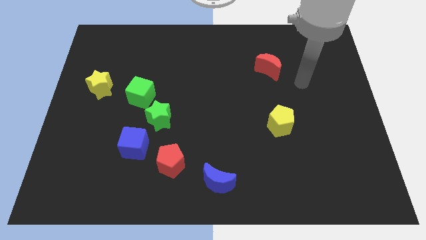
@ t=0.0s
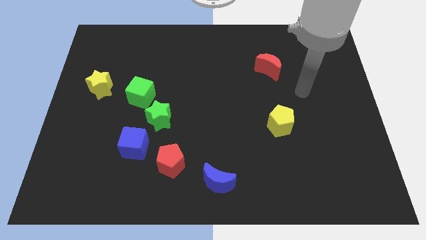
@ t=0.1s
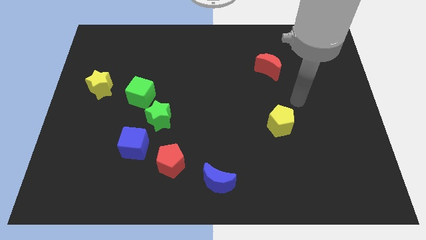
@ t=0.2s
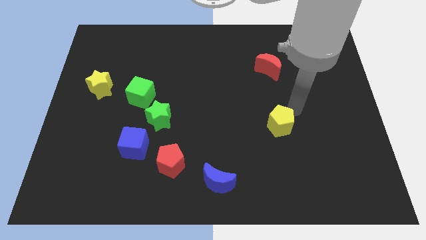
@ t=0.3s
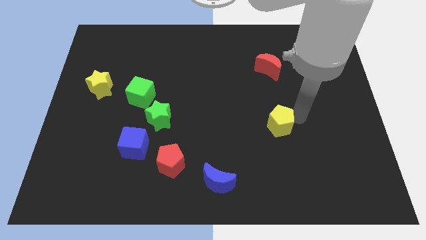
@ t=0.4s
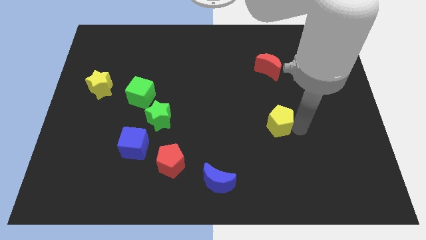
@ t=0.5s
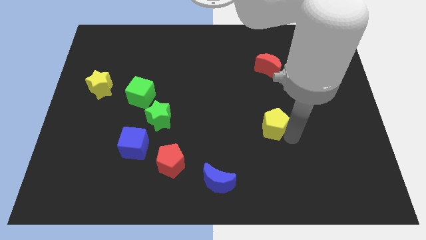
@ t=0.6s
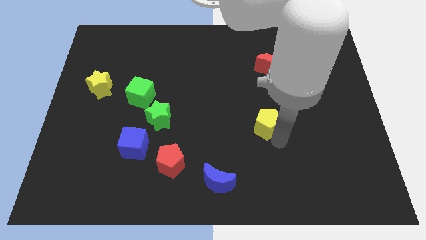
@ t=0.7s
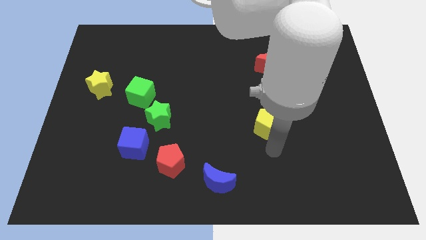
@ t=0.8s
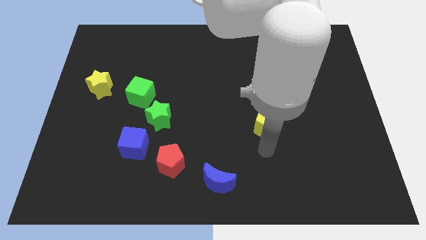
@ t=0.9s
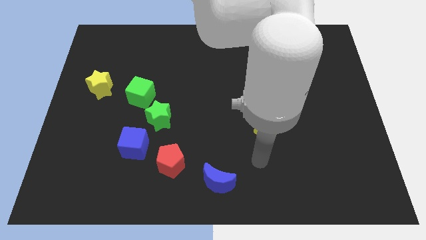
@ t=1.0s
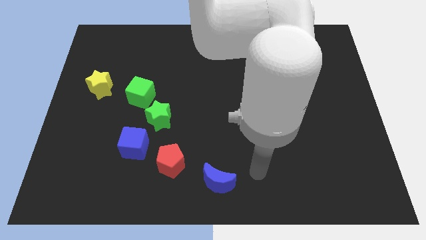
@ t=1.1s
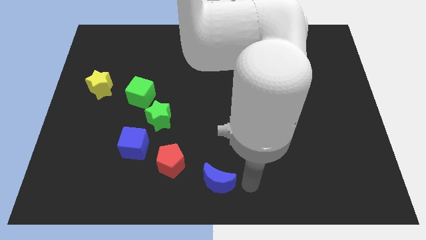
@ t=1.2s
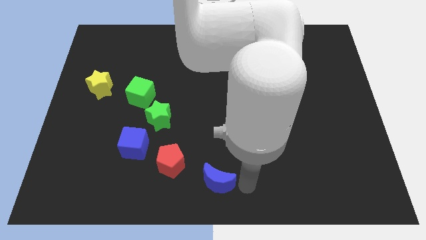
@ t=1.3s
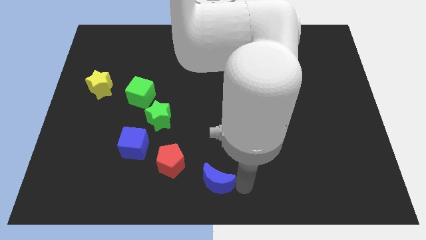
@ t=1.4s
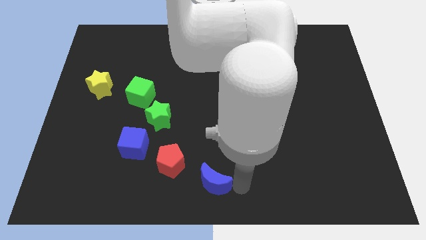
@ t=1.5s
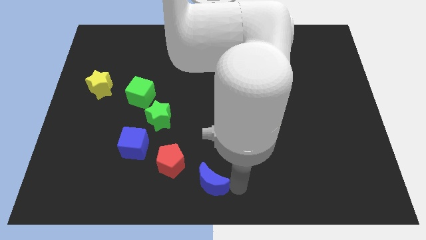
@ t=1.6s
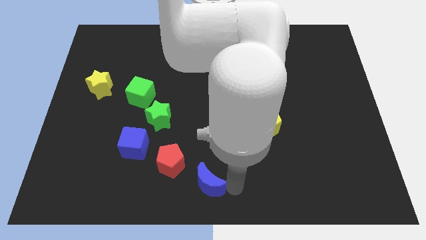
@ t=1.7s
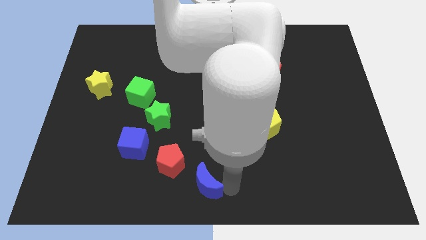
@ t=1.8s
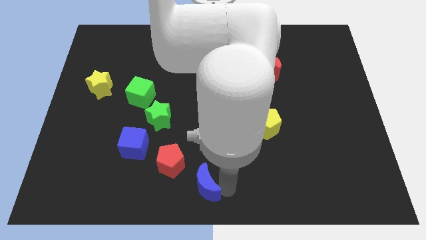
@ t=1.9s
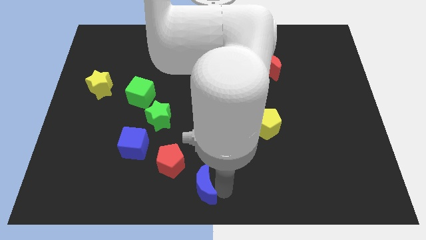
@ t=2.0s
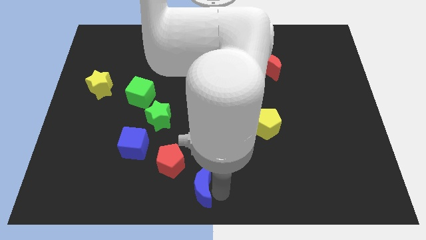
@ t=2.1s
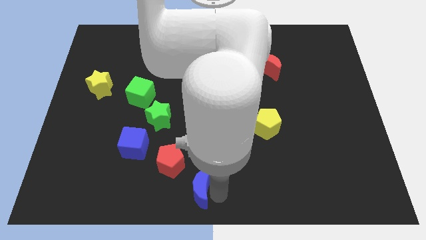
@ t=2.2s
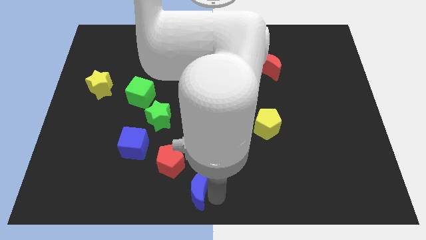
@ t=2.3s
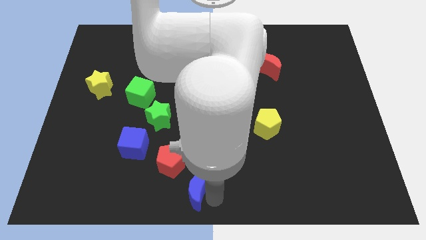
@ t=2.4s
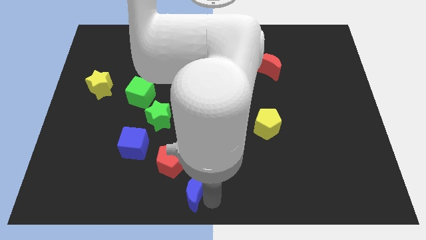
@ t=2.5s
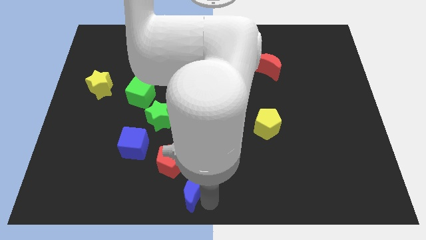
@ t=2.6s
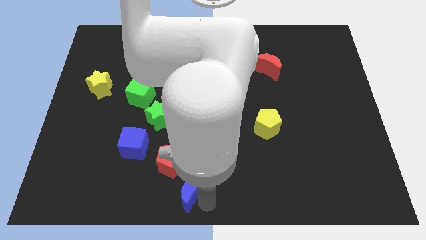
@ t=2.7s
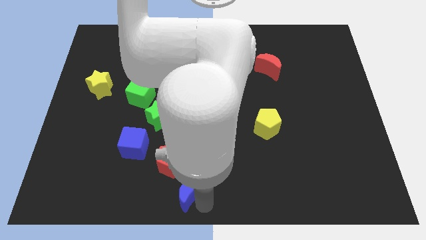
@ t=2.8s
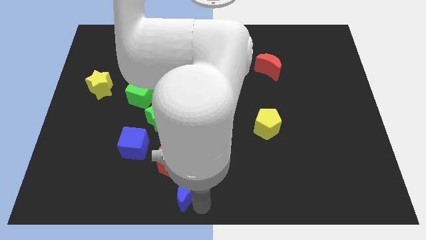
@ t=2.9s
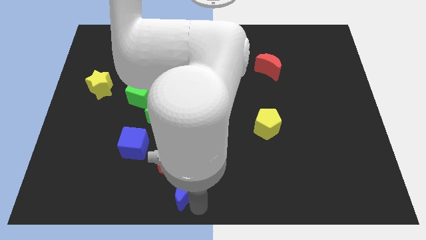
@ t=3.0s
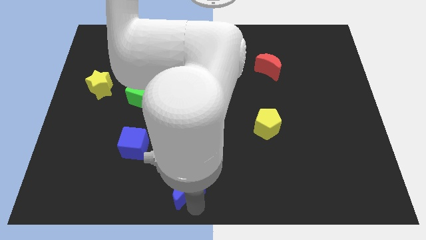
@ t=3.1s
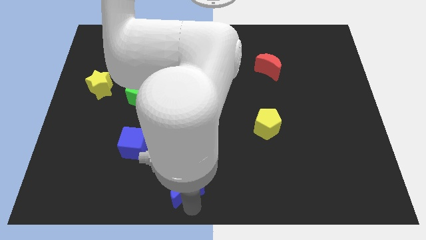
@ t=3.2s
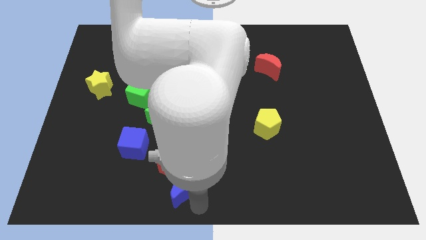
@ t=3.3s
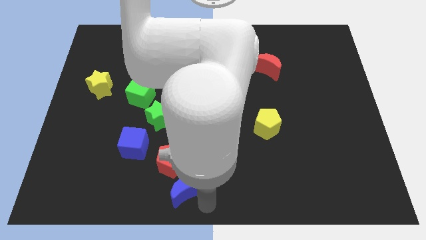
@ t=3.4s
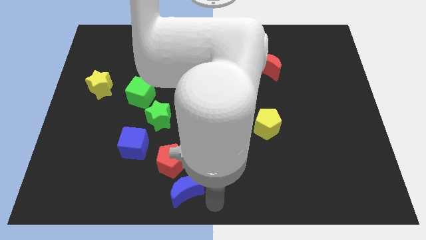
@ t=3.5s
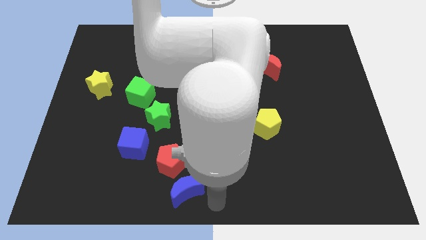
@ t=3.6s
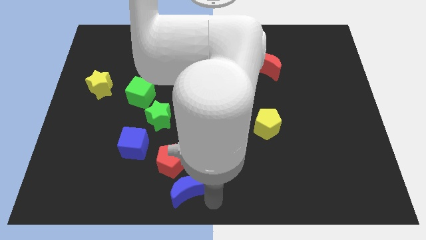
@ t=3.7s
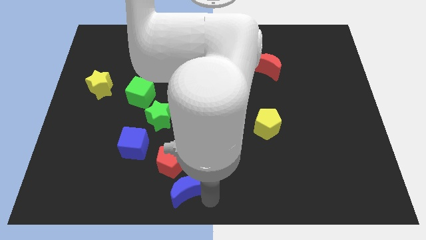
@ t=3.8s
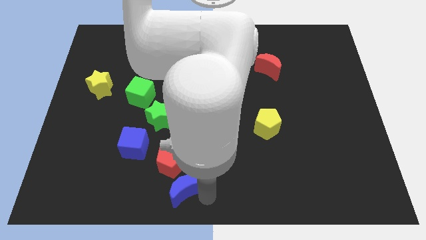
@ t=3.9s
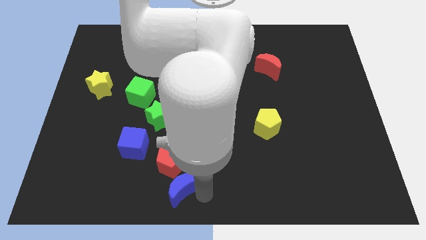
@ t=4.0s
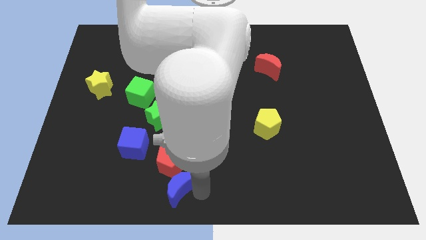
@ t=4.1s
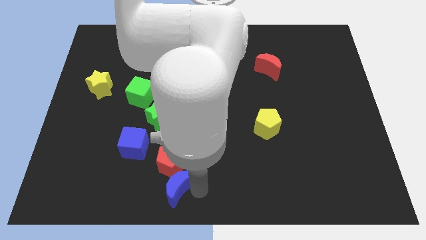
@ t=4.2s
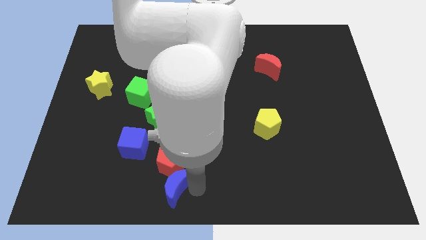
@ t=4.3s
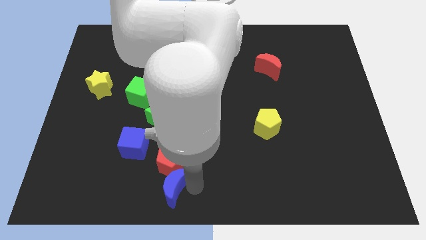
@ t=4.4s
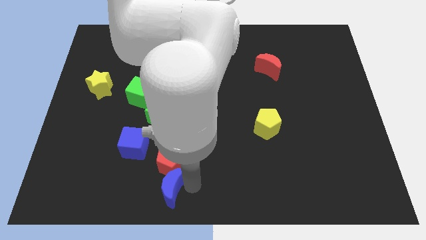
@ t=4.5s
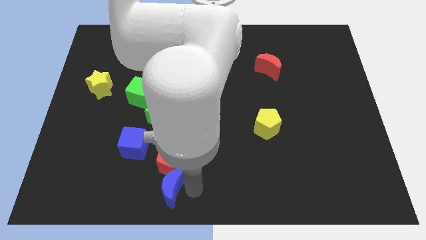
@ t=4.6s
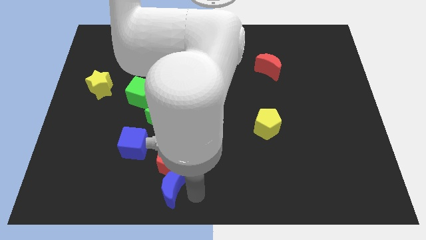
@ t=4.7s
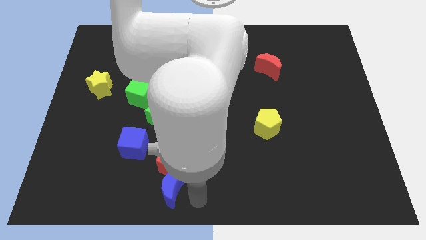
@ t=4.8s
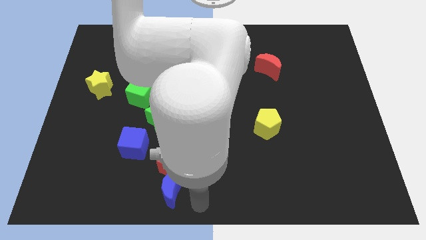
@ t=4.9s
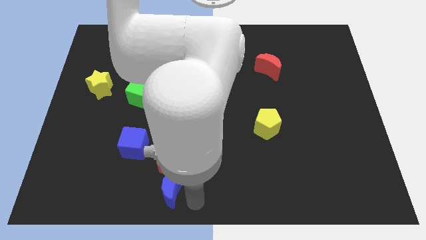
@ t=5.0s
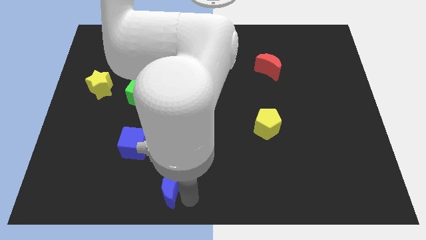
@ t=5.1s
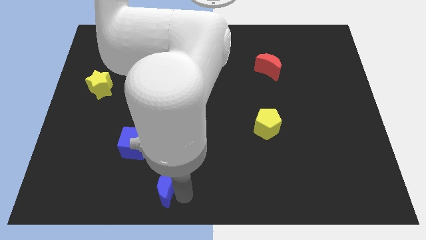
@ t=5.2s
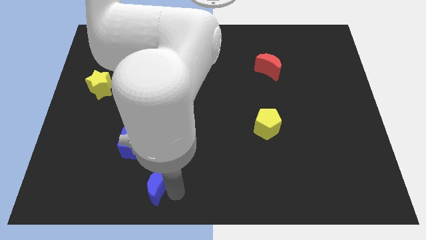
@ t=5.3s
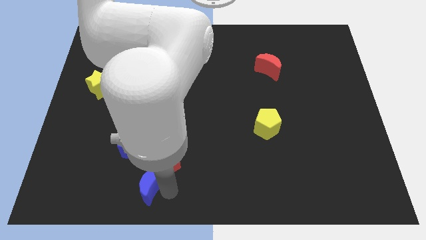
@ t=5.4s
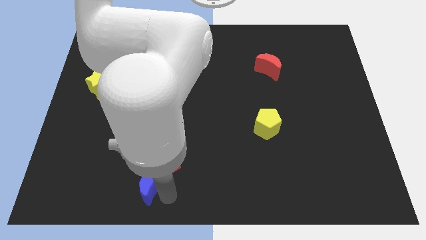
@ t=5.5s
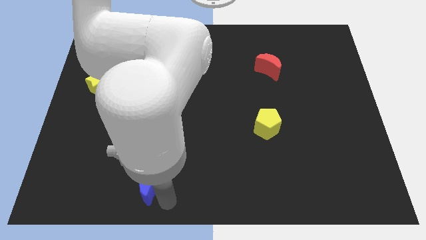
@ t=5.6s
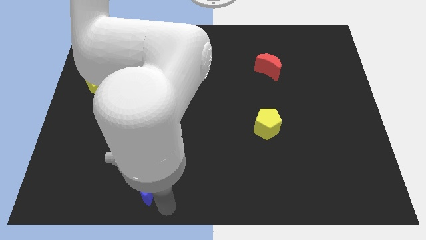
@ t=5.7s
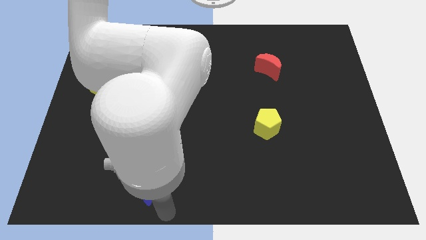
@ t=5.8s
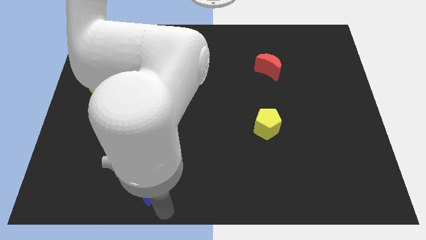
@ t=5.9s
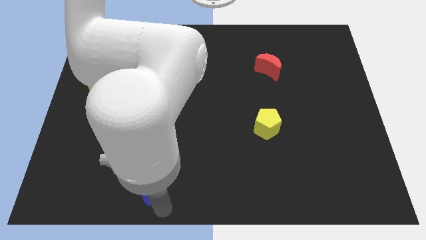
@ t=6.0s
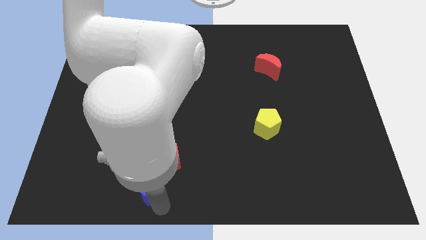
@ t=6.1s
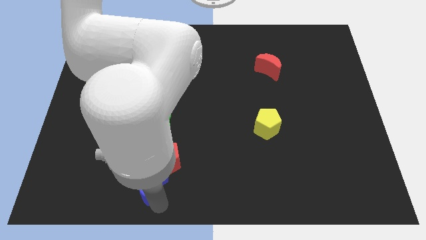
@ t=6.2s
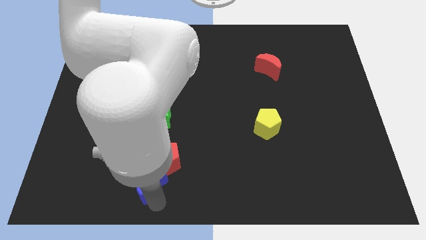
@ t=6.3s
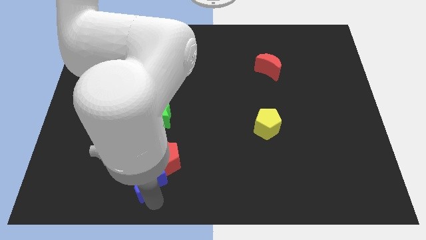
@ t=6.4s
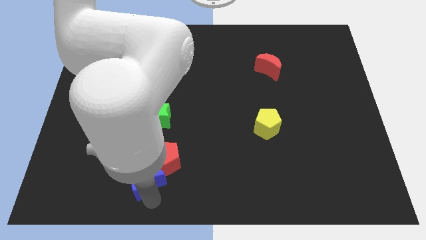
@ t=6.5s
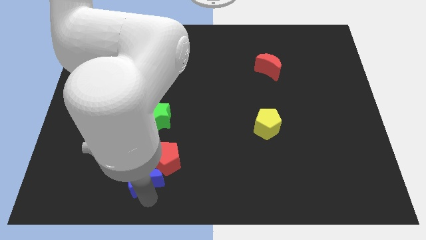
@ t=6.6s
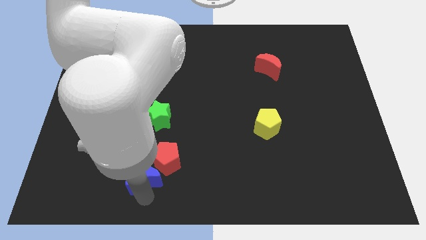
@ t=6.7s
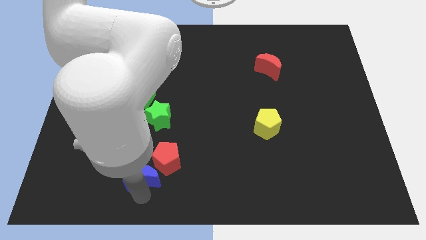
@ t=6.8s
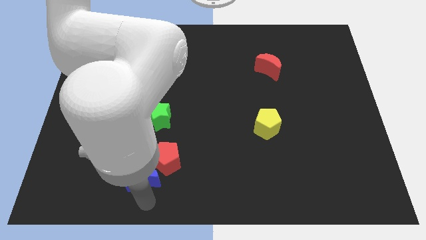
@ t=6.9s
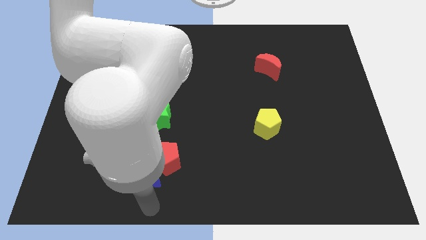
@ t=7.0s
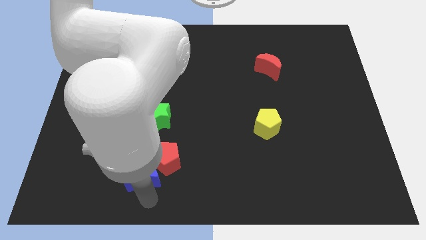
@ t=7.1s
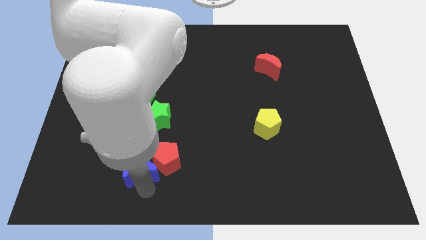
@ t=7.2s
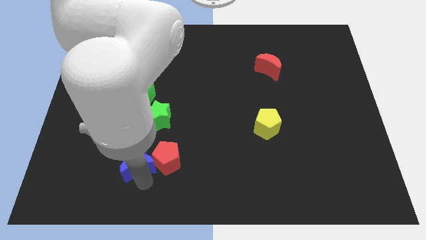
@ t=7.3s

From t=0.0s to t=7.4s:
push the blue moon towards the blue cube
